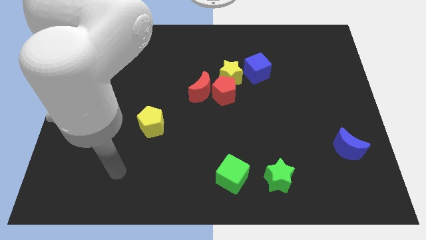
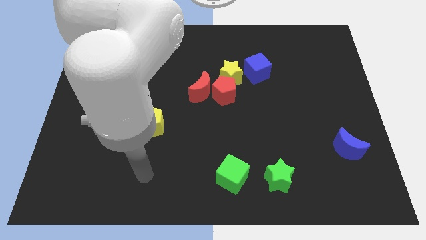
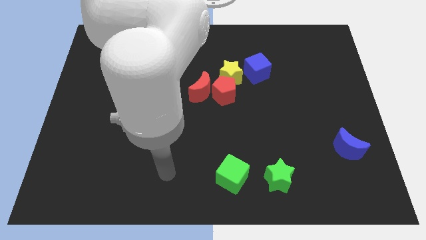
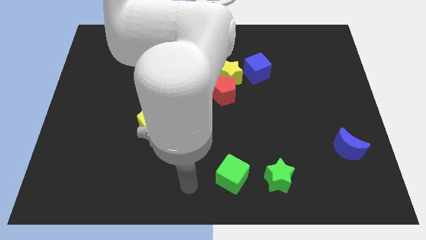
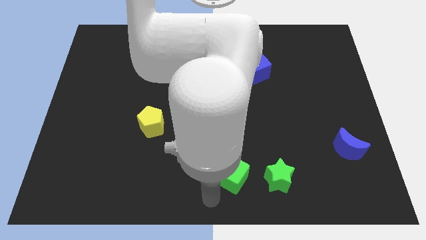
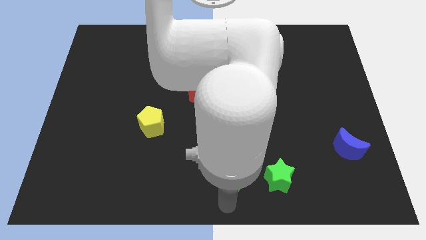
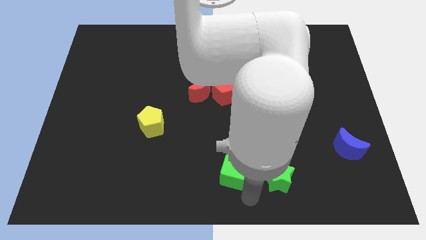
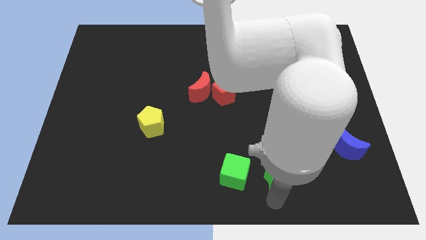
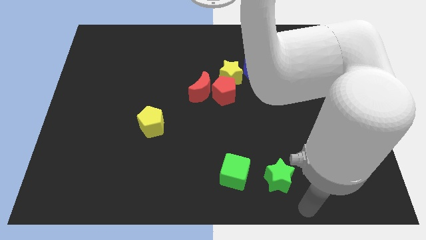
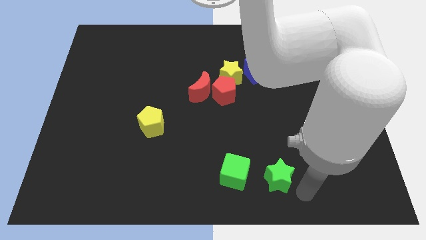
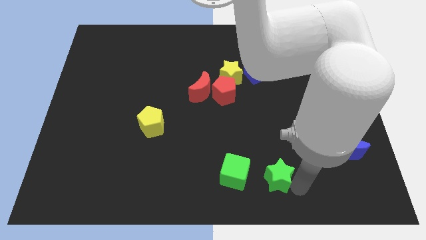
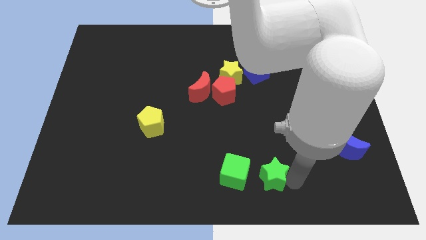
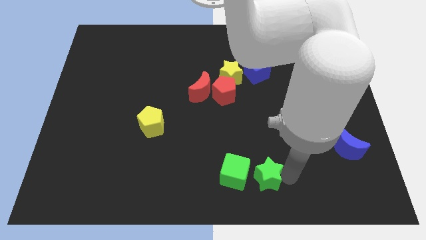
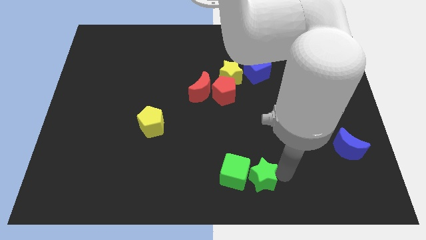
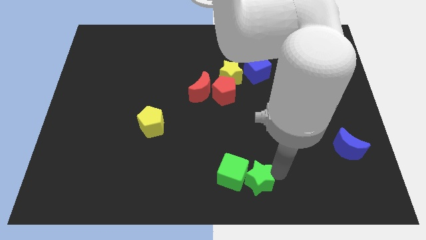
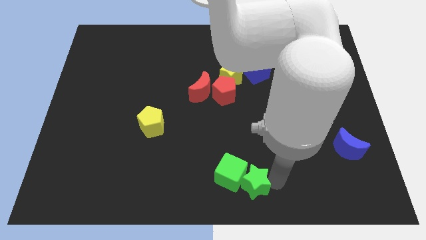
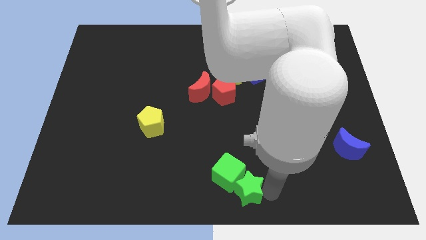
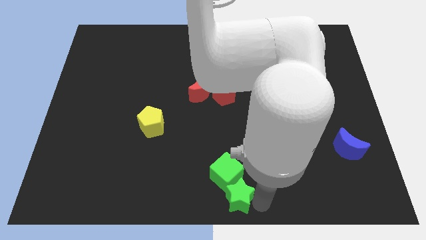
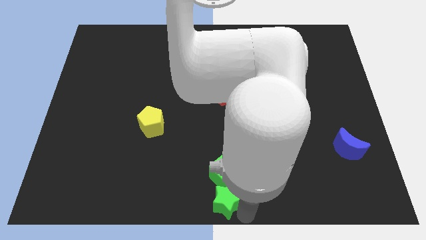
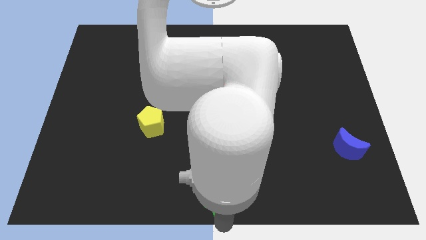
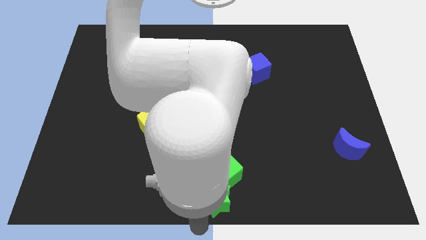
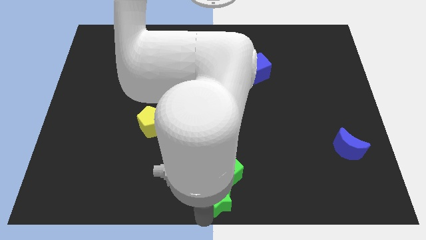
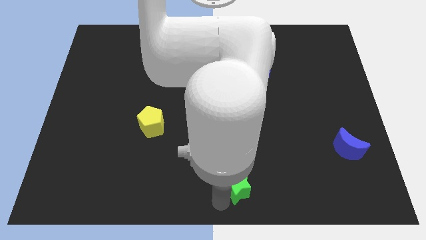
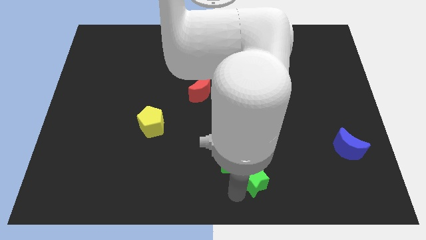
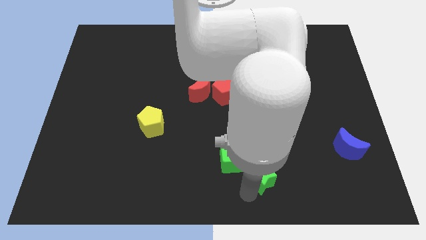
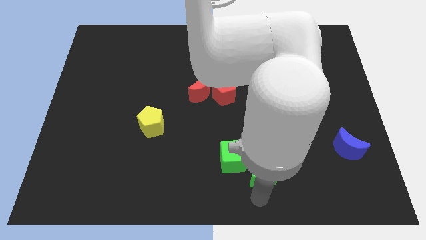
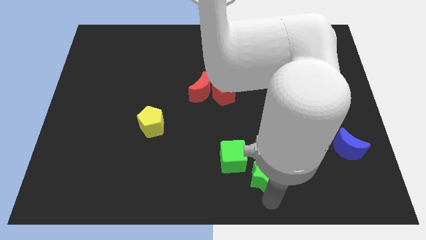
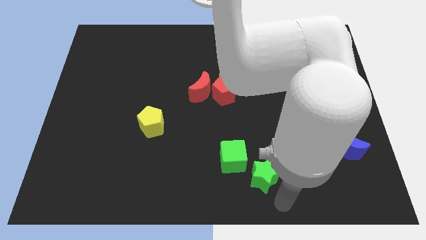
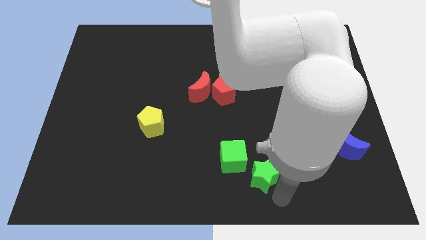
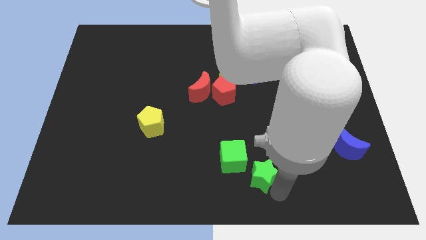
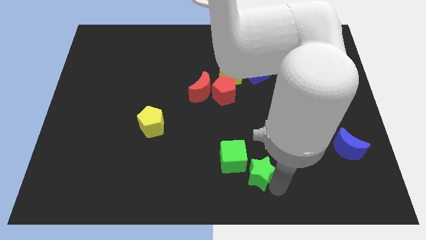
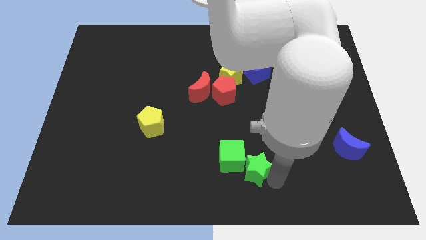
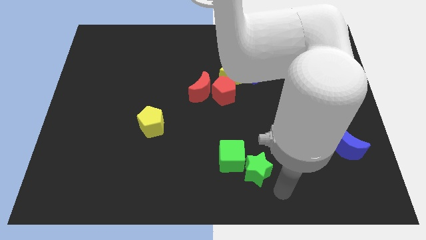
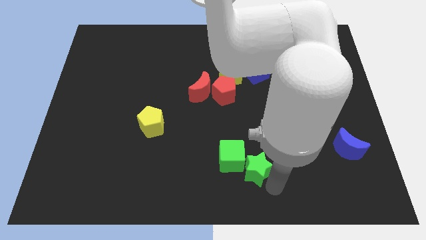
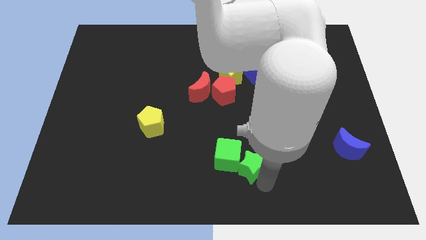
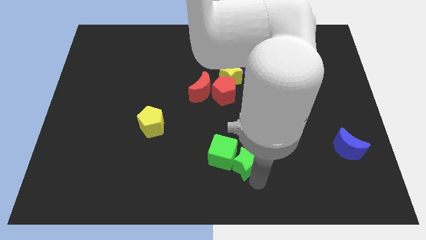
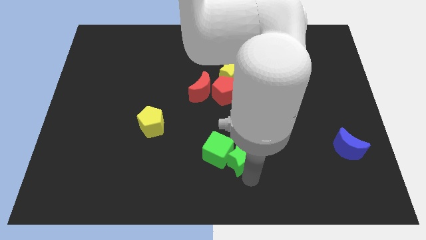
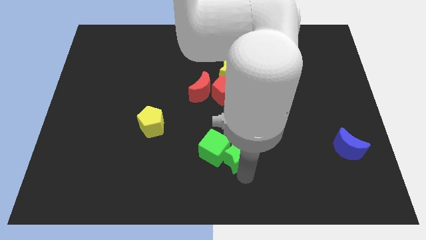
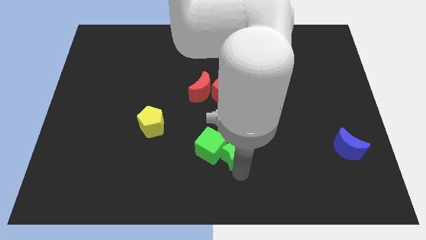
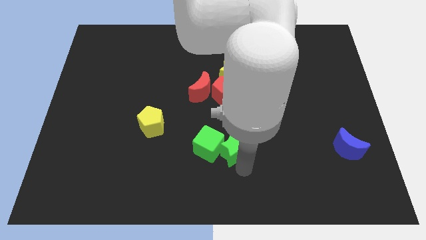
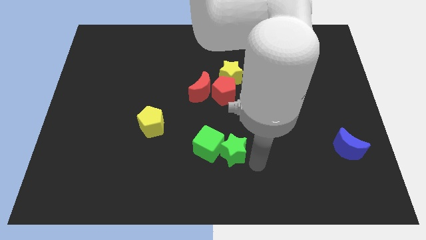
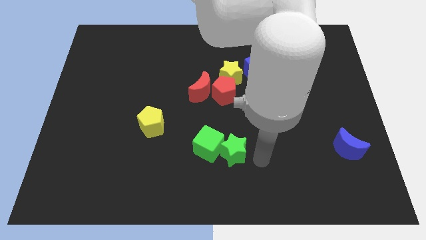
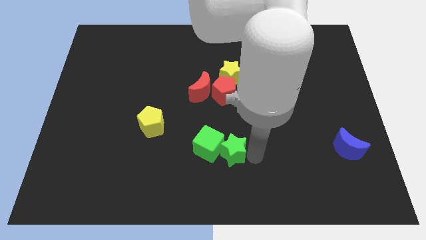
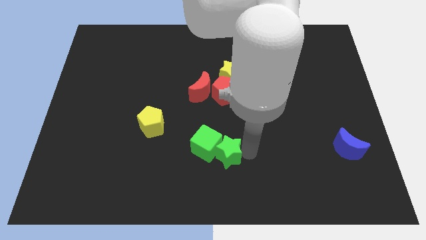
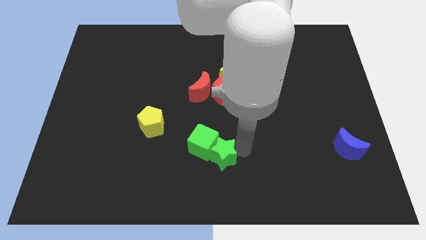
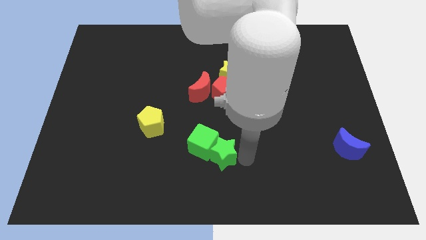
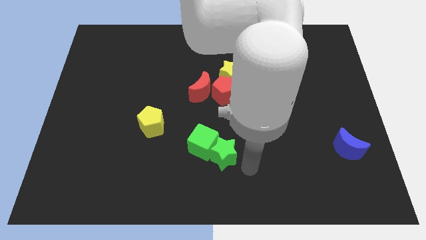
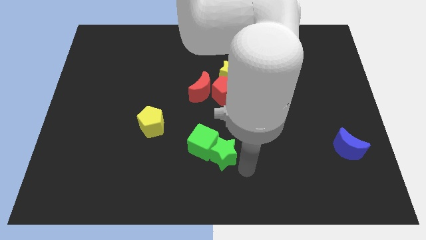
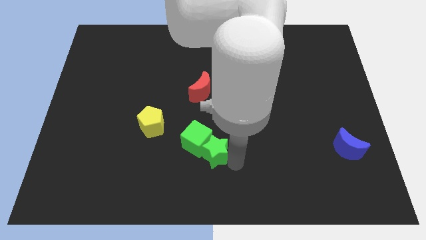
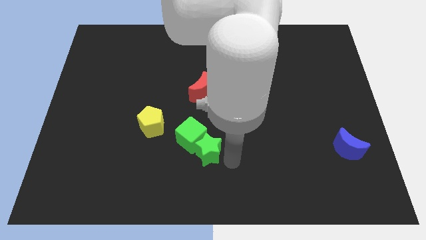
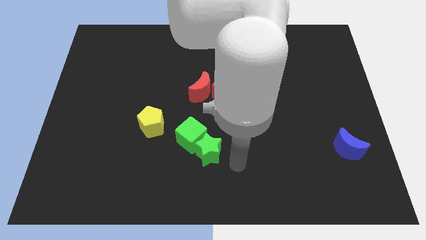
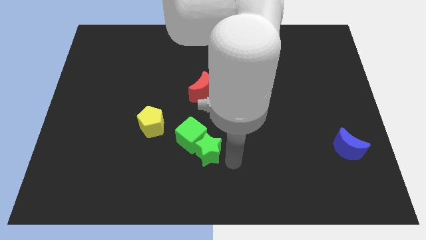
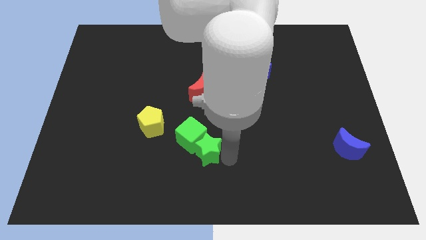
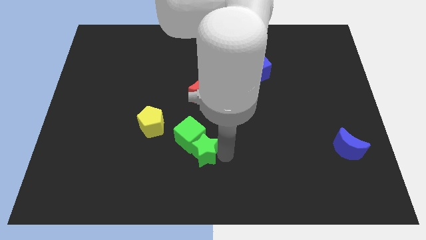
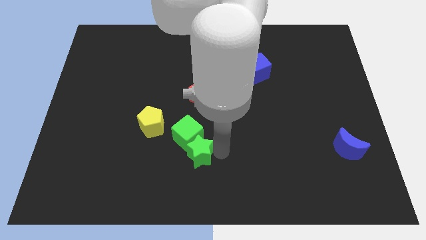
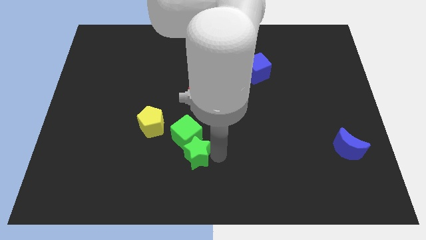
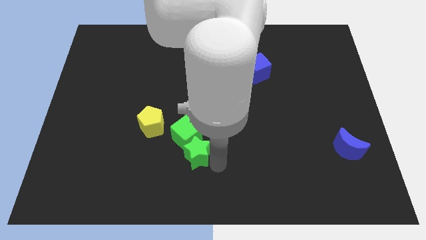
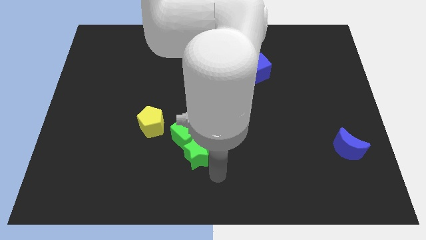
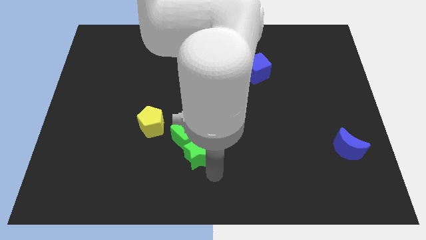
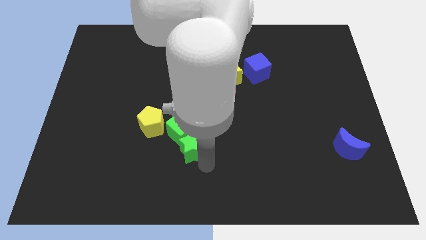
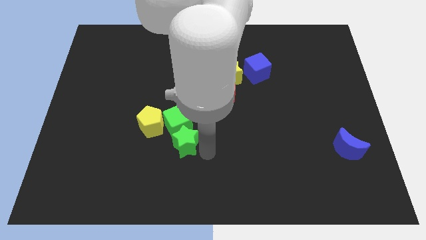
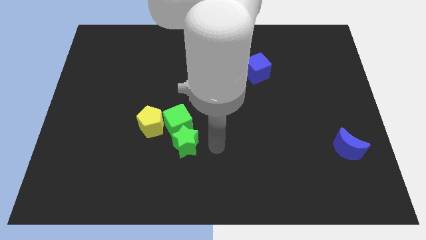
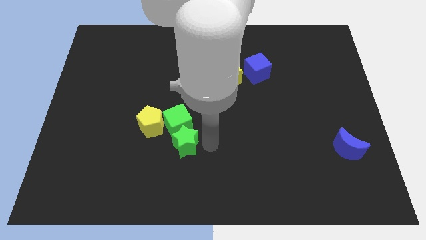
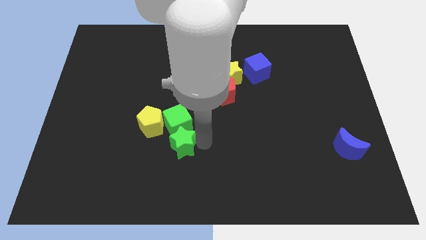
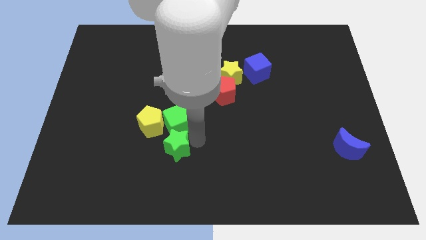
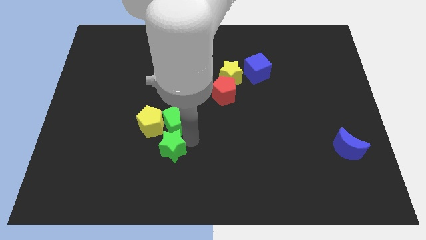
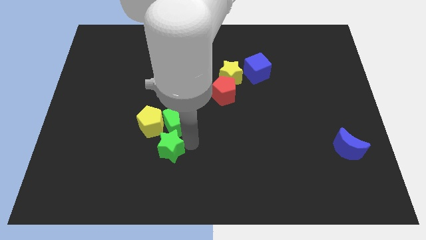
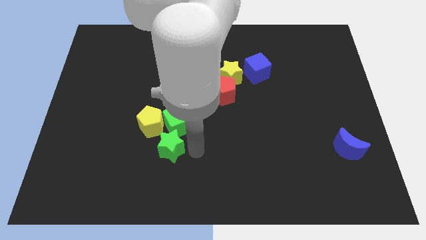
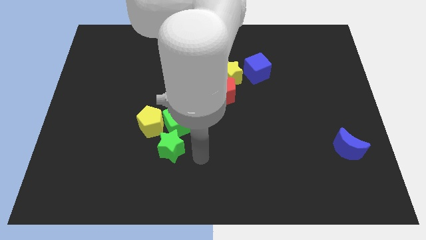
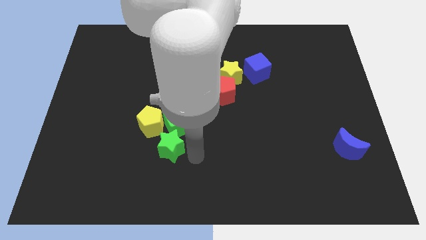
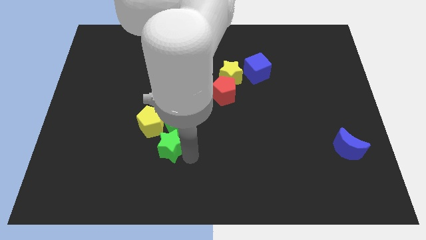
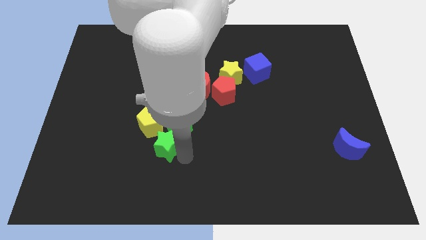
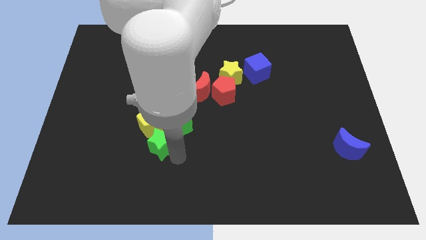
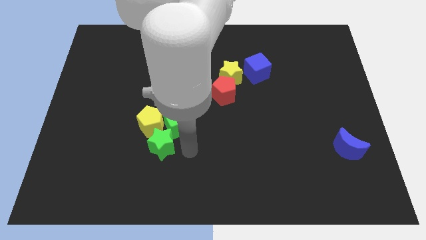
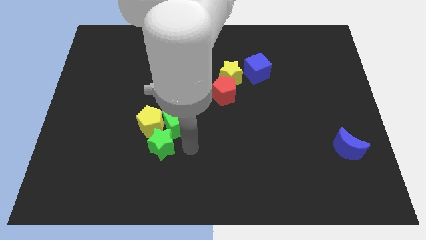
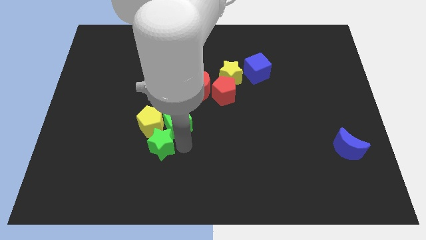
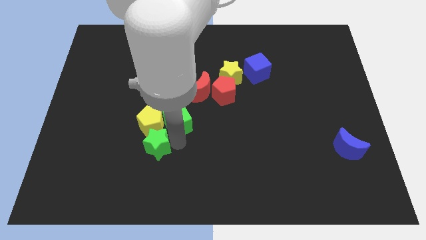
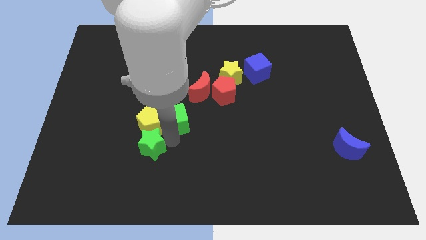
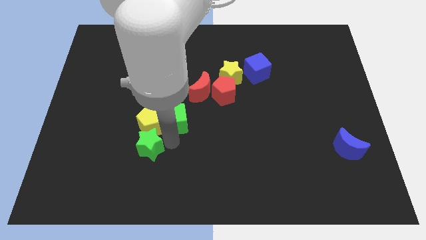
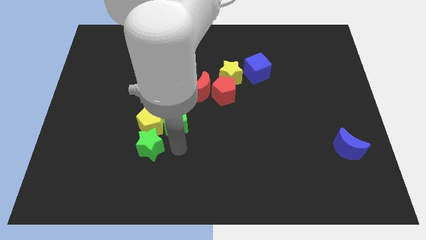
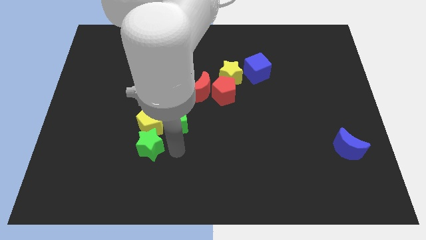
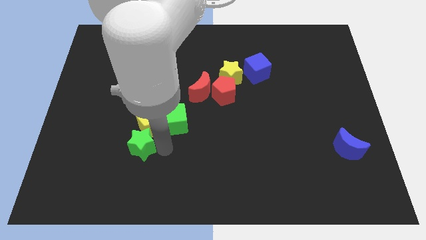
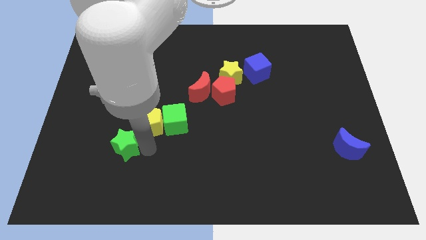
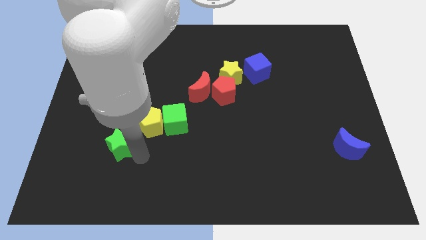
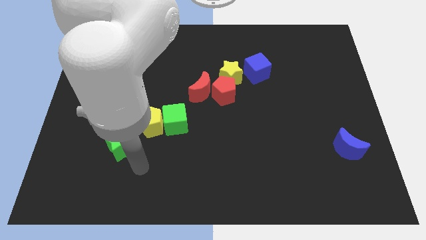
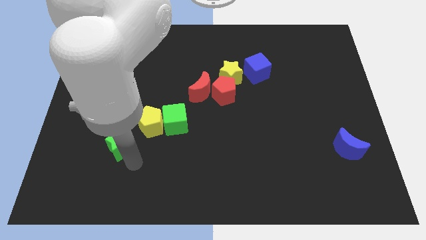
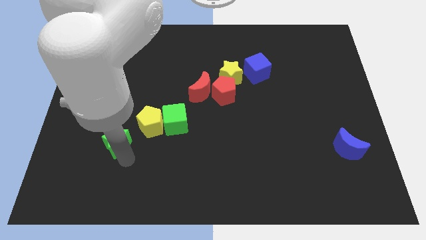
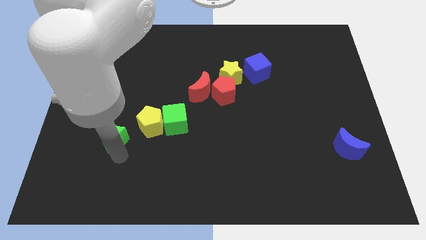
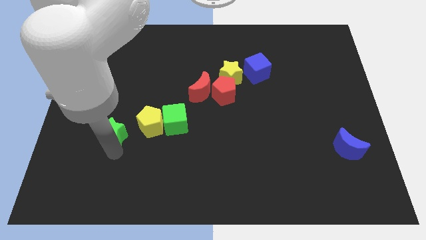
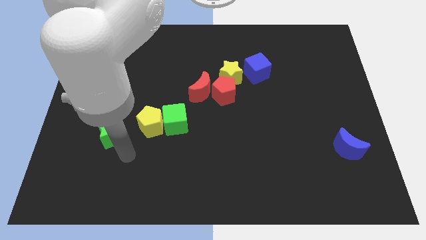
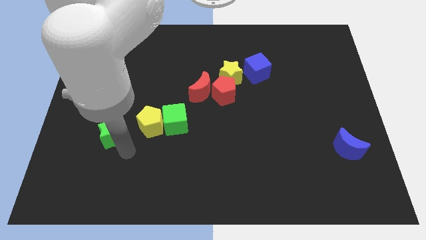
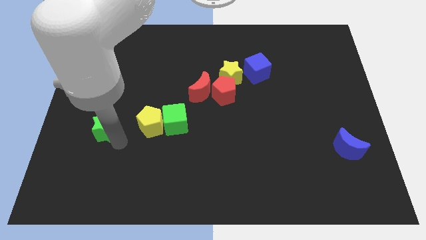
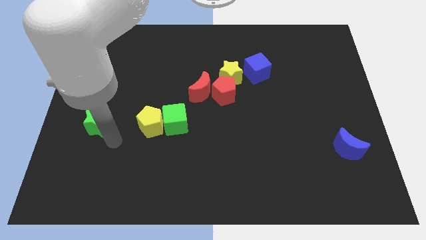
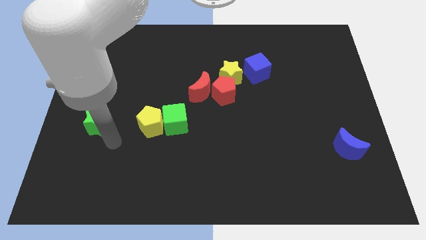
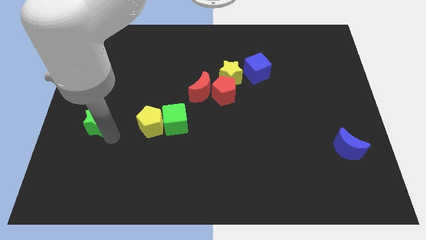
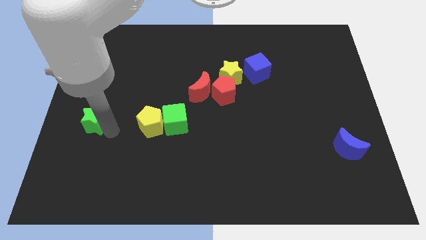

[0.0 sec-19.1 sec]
push the green star to the left side
